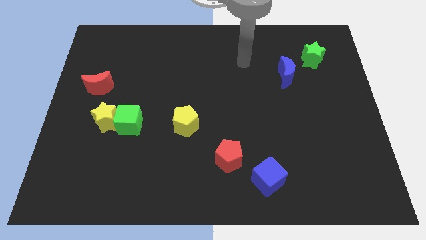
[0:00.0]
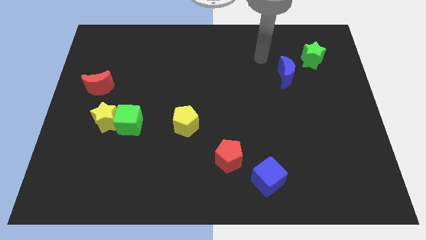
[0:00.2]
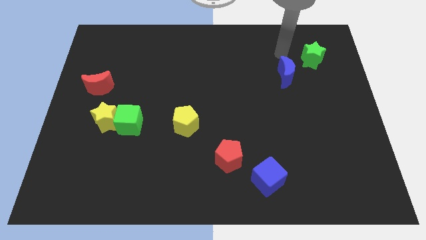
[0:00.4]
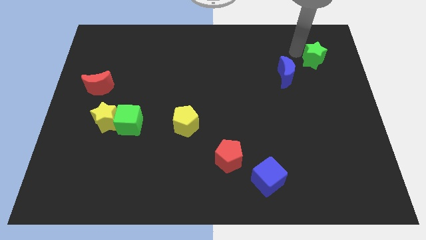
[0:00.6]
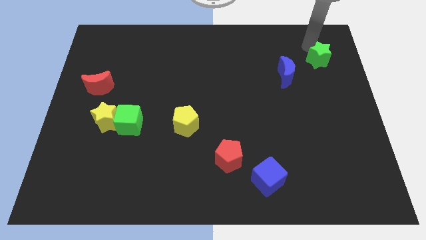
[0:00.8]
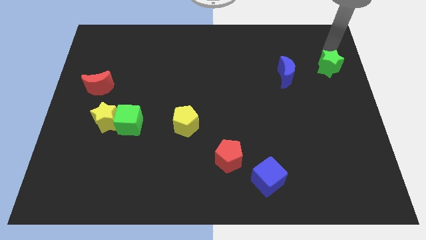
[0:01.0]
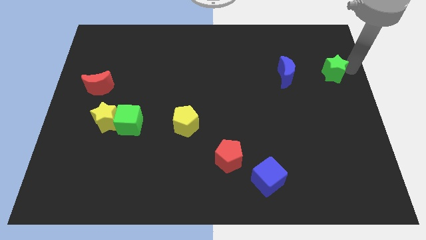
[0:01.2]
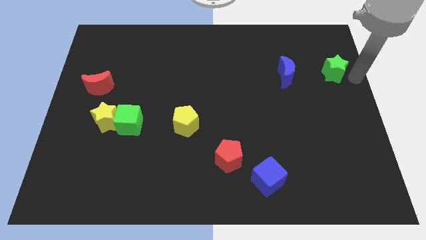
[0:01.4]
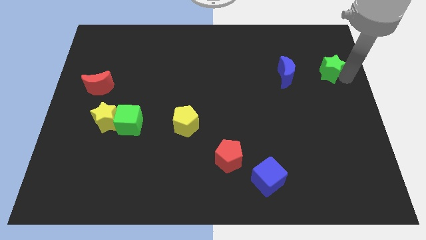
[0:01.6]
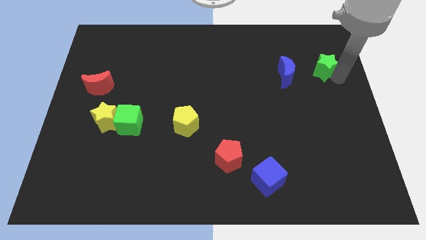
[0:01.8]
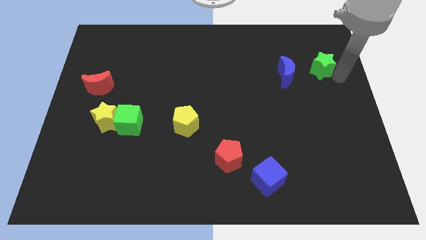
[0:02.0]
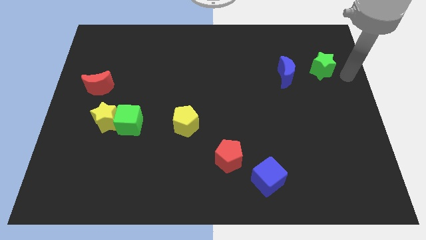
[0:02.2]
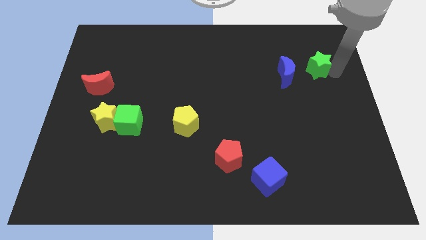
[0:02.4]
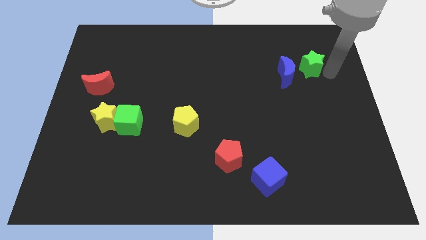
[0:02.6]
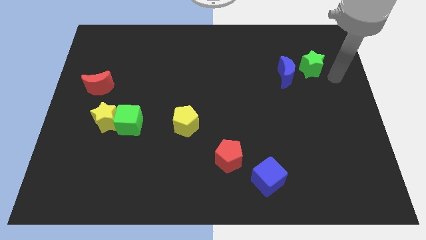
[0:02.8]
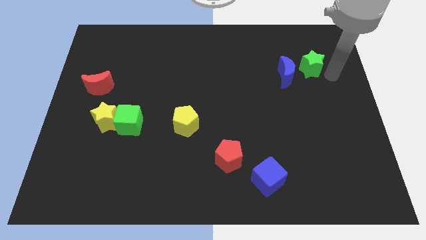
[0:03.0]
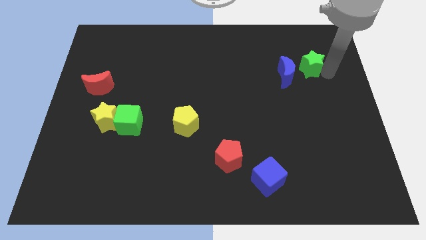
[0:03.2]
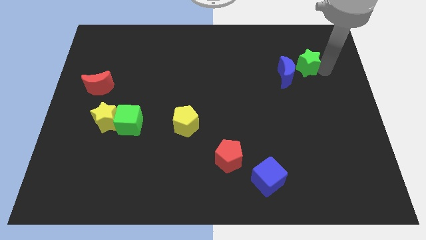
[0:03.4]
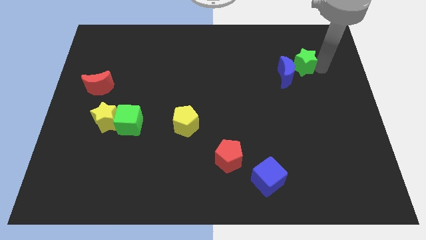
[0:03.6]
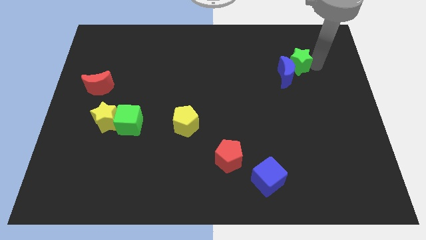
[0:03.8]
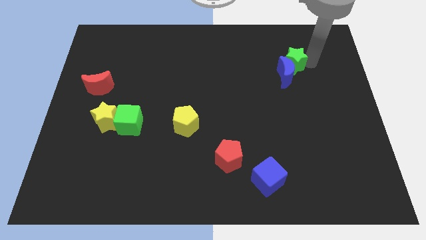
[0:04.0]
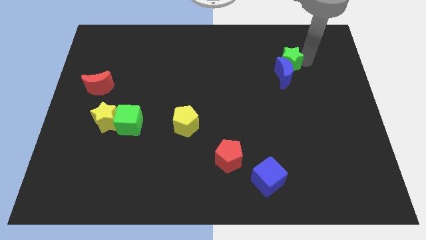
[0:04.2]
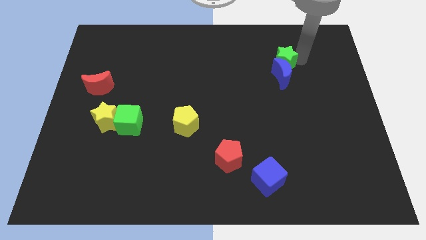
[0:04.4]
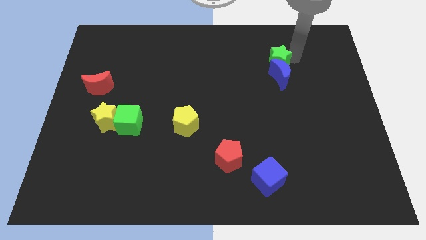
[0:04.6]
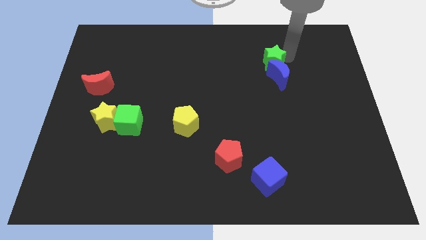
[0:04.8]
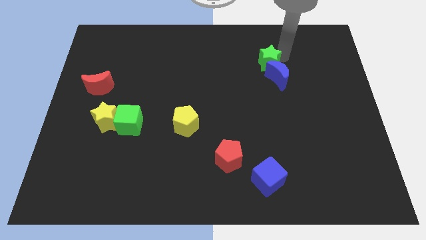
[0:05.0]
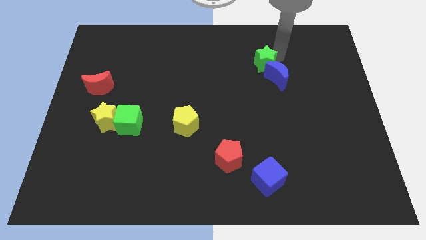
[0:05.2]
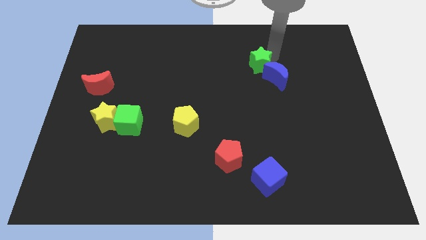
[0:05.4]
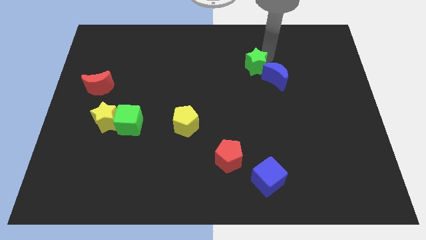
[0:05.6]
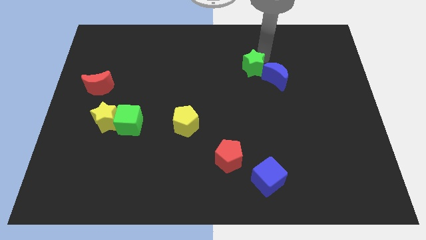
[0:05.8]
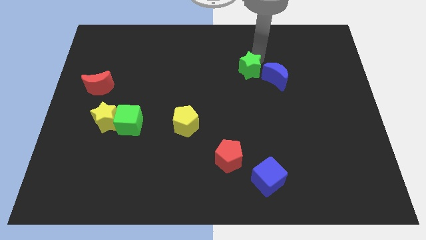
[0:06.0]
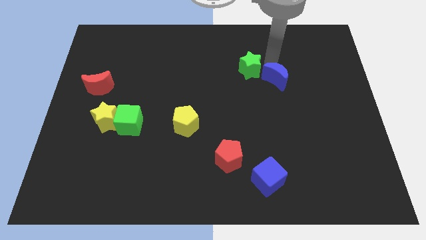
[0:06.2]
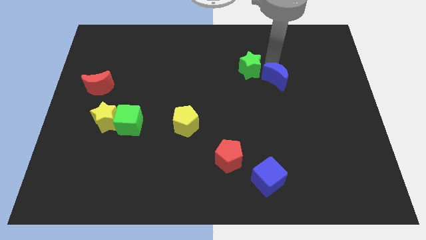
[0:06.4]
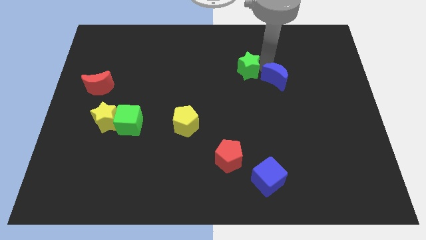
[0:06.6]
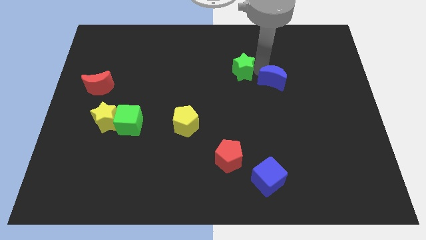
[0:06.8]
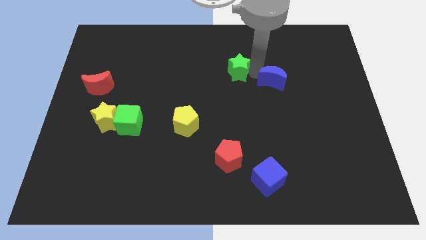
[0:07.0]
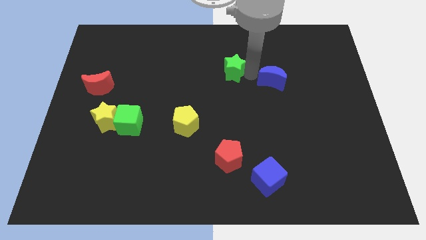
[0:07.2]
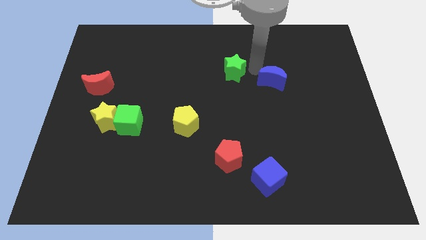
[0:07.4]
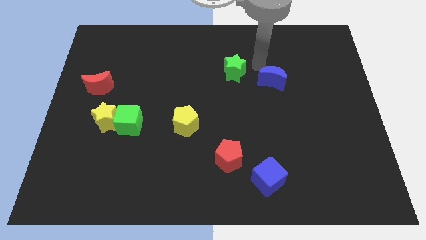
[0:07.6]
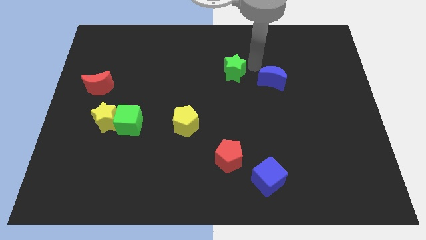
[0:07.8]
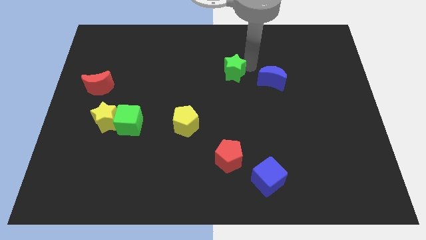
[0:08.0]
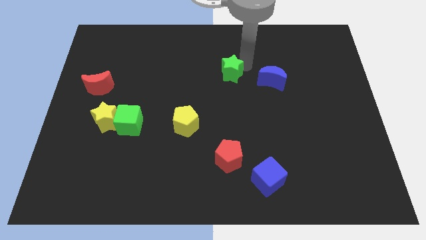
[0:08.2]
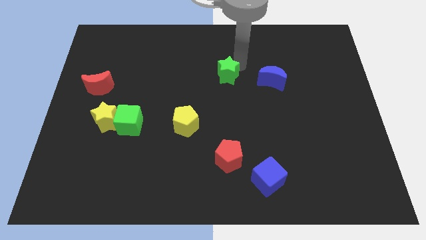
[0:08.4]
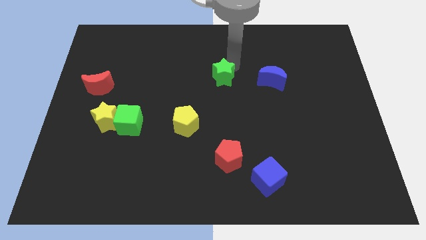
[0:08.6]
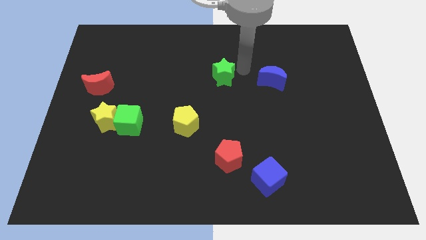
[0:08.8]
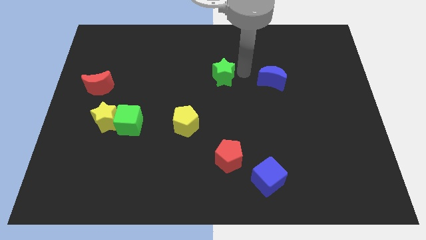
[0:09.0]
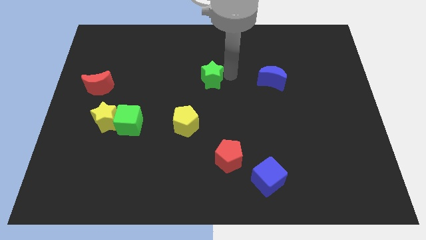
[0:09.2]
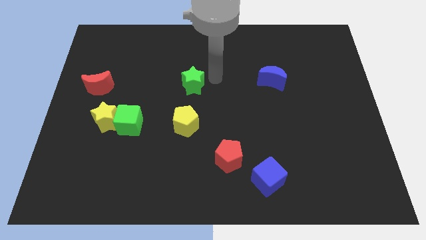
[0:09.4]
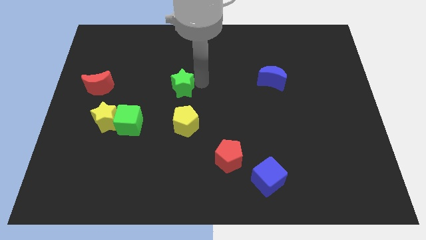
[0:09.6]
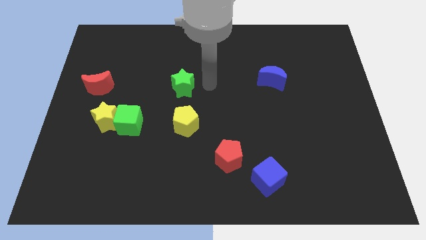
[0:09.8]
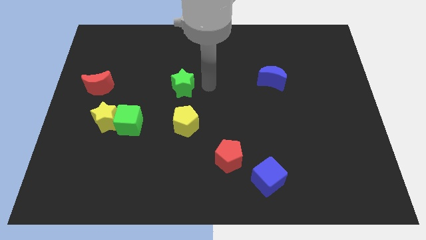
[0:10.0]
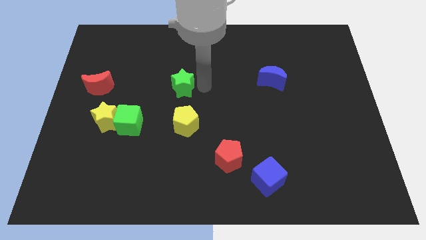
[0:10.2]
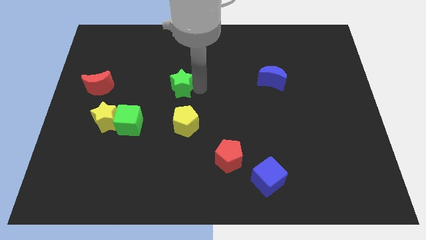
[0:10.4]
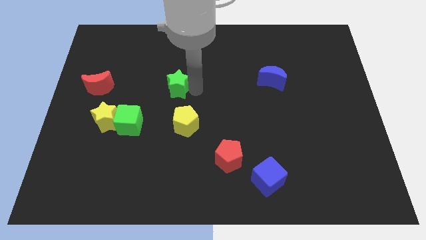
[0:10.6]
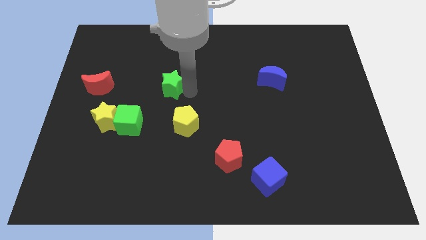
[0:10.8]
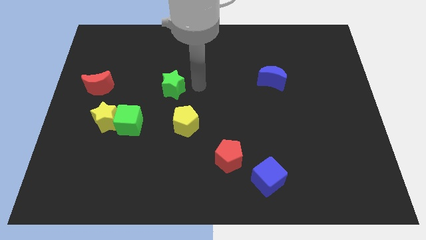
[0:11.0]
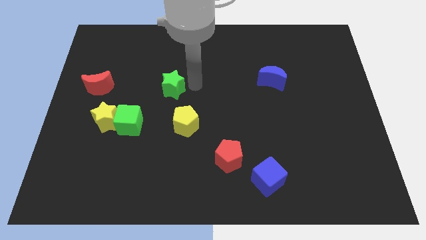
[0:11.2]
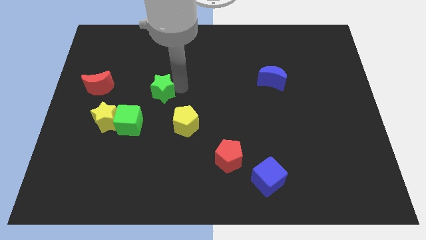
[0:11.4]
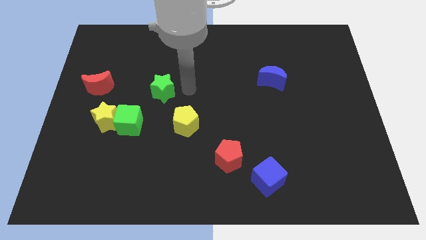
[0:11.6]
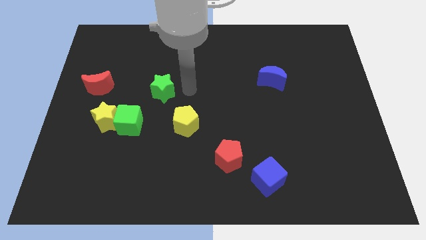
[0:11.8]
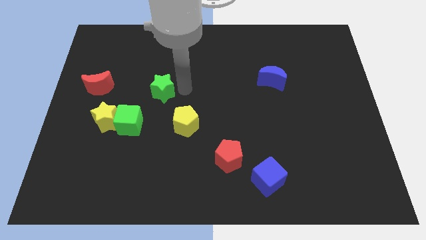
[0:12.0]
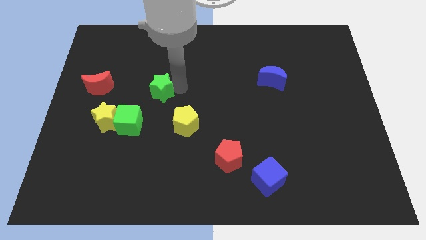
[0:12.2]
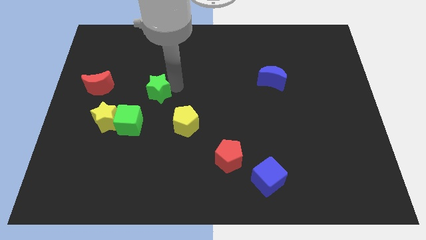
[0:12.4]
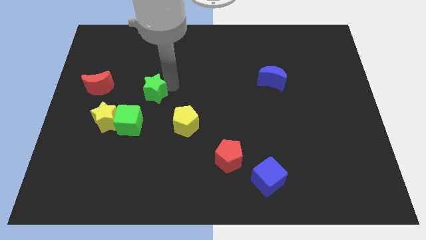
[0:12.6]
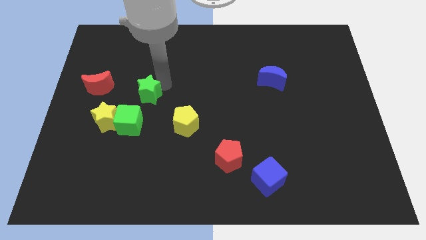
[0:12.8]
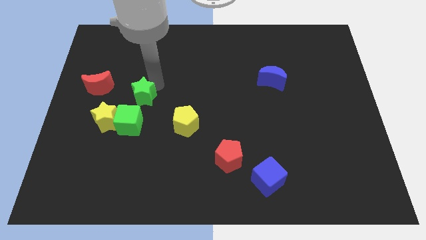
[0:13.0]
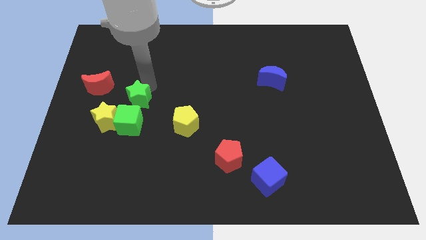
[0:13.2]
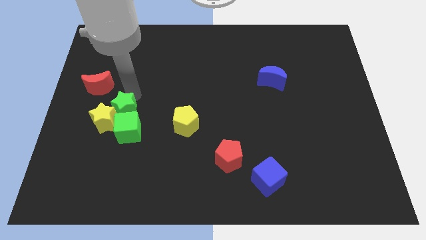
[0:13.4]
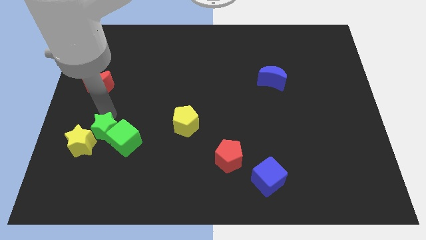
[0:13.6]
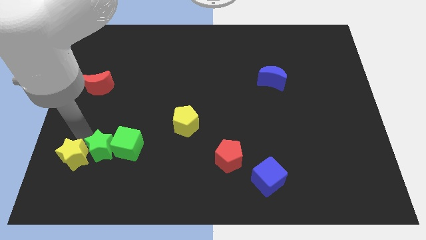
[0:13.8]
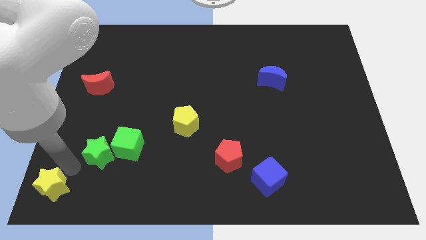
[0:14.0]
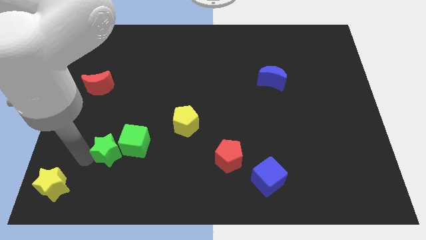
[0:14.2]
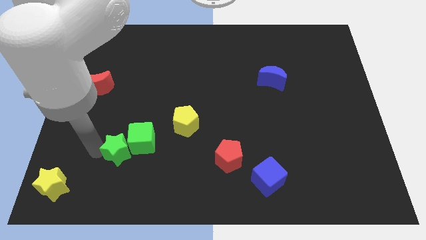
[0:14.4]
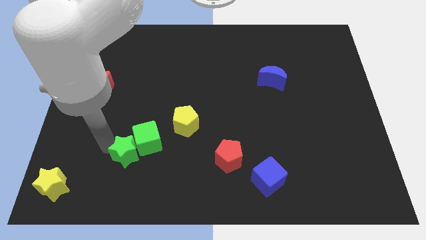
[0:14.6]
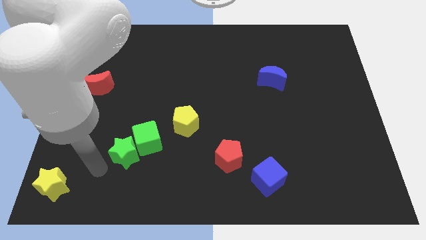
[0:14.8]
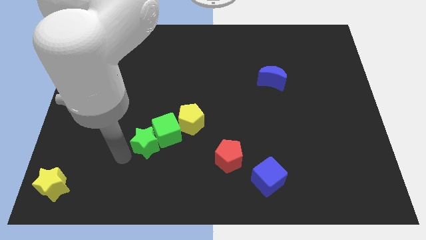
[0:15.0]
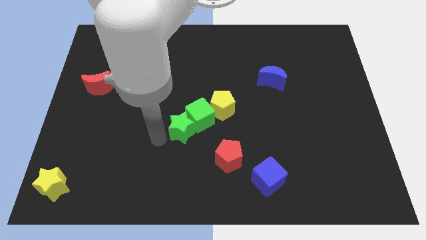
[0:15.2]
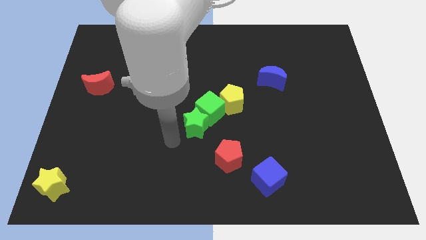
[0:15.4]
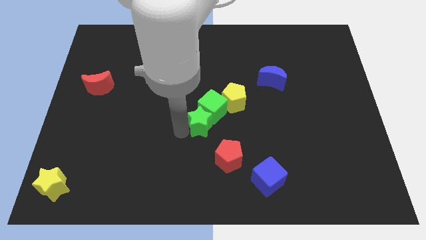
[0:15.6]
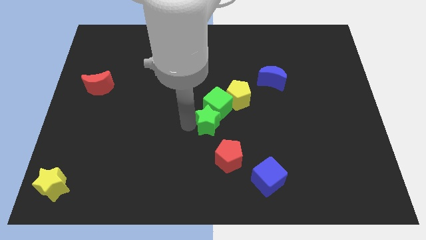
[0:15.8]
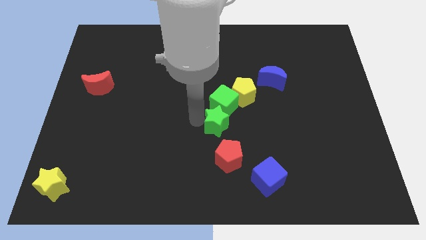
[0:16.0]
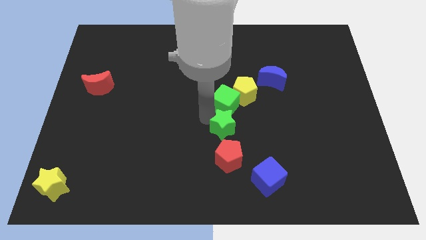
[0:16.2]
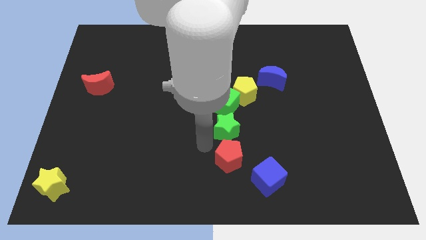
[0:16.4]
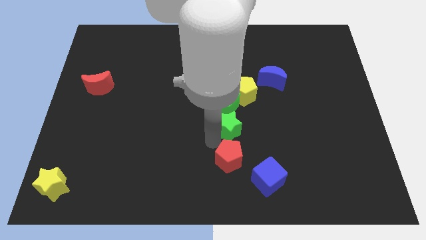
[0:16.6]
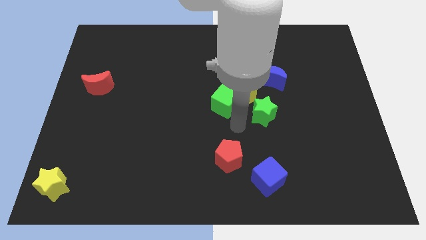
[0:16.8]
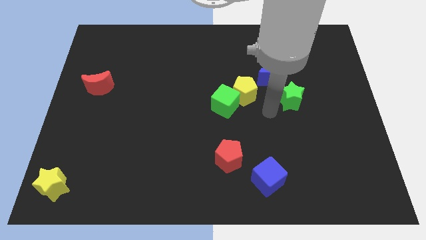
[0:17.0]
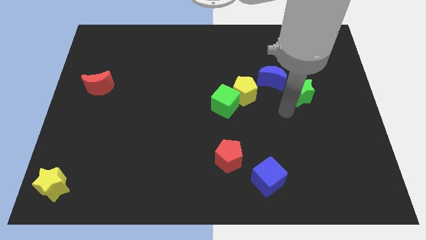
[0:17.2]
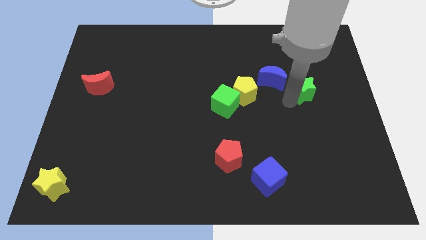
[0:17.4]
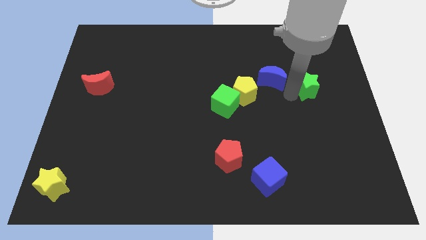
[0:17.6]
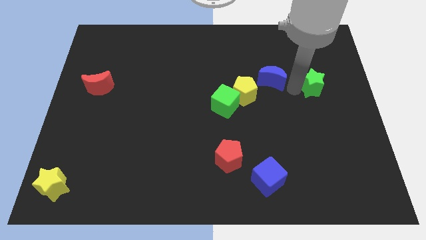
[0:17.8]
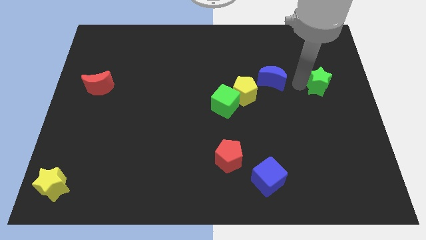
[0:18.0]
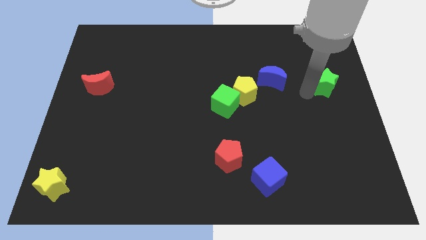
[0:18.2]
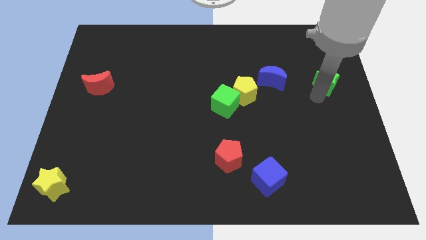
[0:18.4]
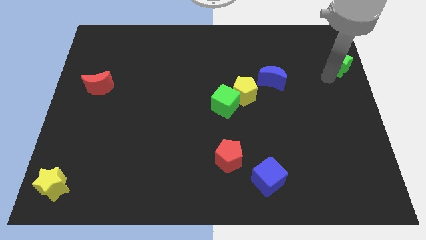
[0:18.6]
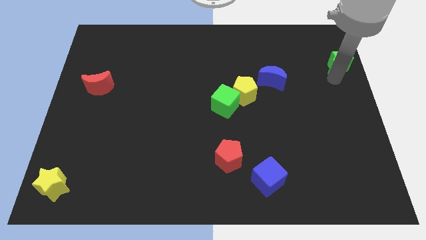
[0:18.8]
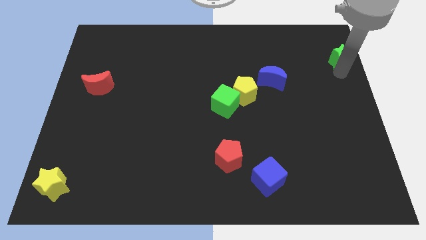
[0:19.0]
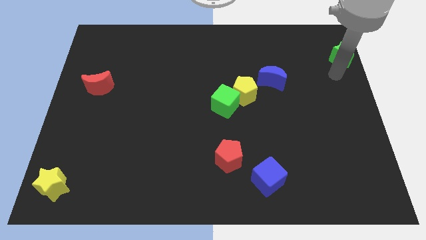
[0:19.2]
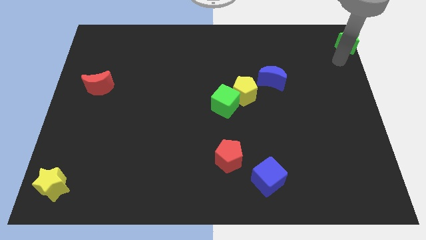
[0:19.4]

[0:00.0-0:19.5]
slide the green star to the top right
